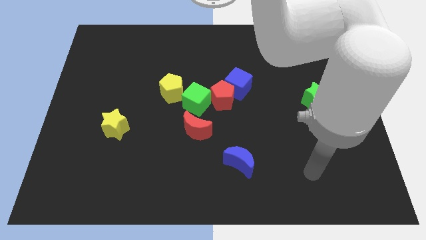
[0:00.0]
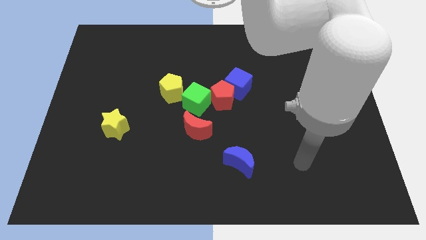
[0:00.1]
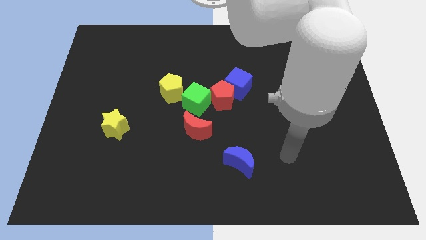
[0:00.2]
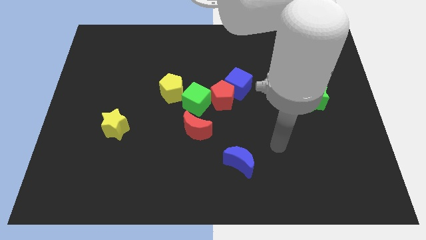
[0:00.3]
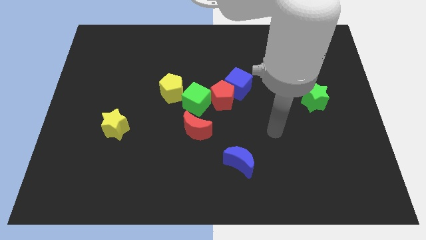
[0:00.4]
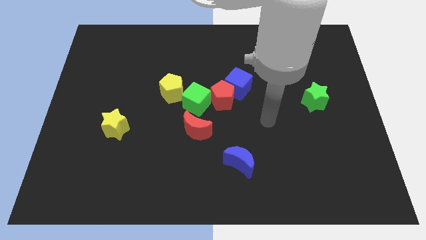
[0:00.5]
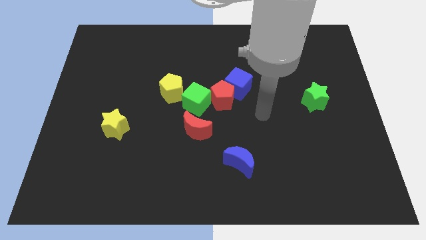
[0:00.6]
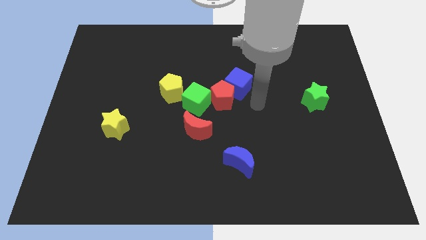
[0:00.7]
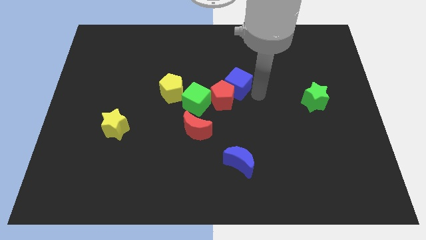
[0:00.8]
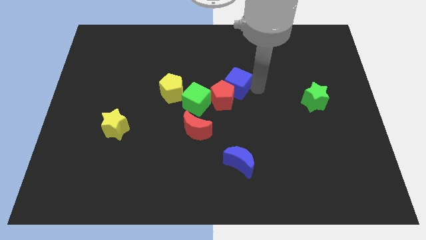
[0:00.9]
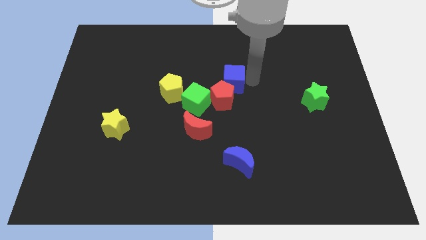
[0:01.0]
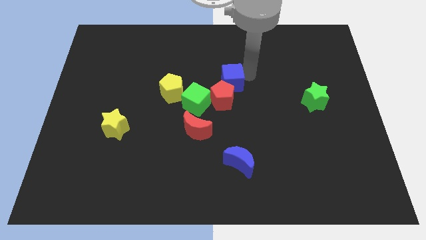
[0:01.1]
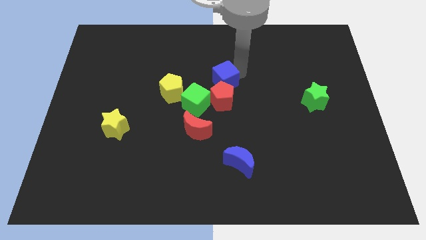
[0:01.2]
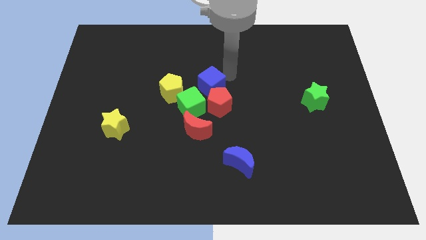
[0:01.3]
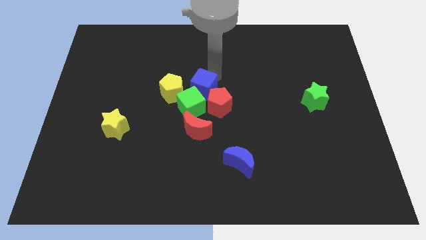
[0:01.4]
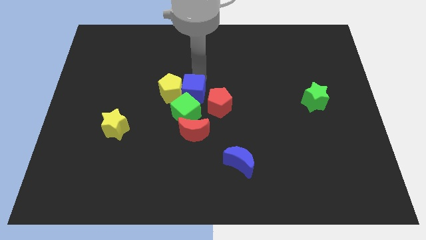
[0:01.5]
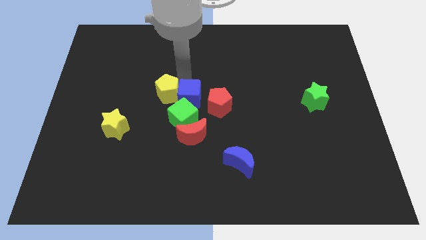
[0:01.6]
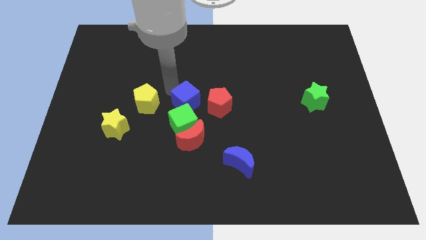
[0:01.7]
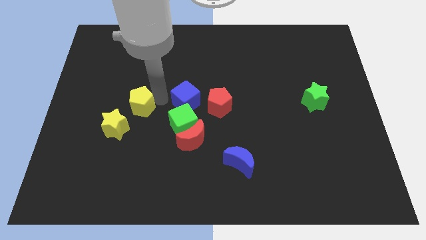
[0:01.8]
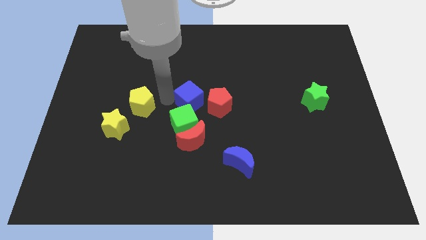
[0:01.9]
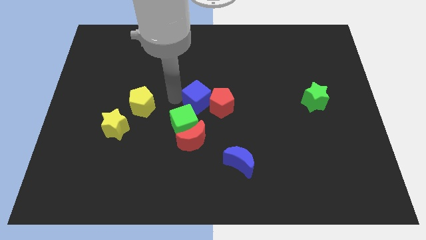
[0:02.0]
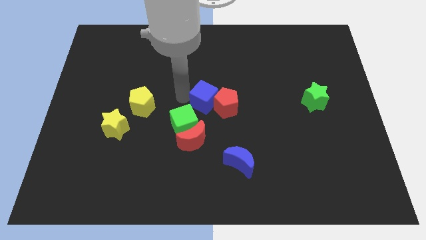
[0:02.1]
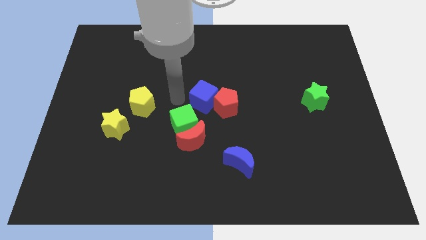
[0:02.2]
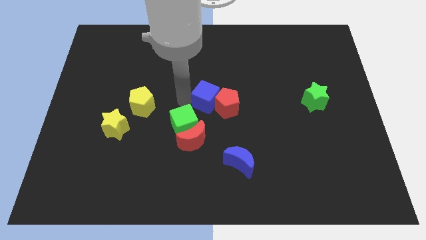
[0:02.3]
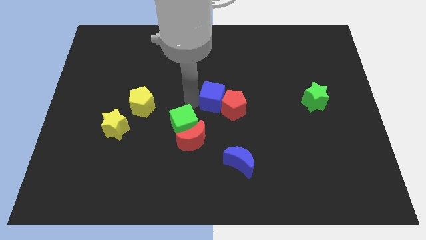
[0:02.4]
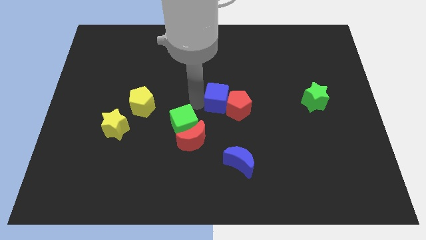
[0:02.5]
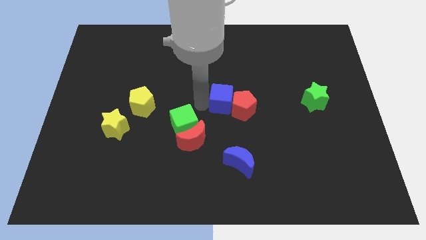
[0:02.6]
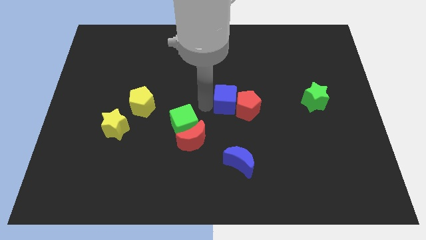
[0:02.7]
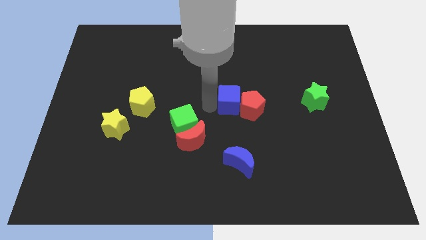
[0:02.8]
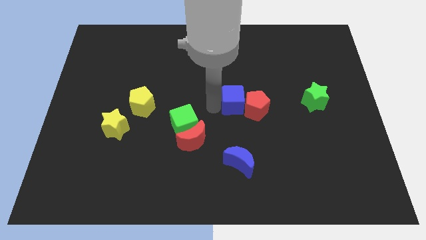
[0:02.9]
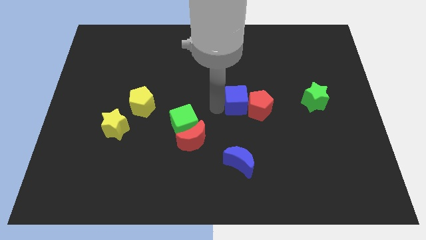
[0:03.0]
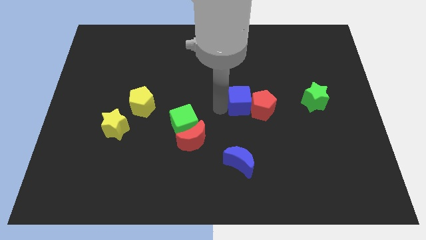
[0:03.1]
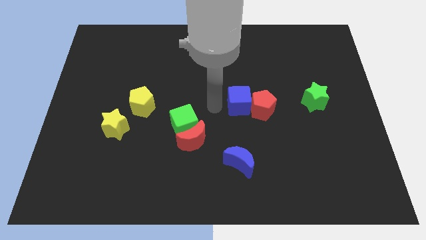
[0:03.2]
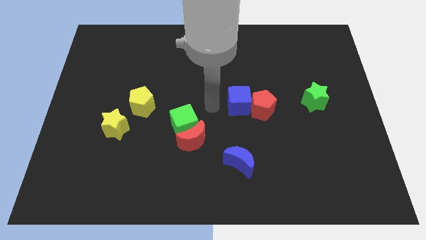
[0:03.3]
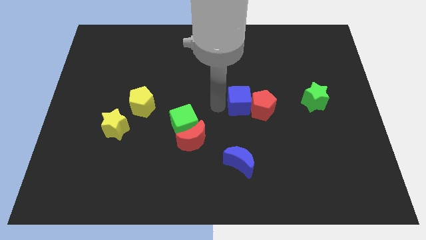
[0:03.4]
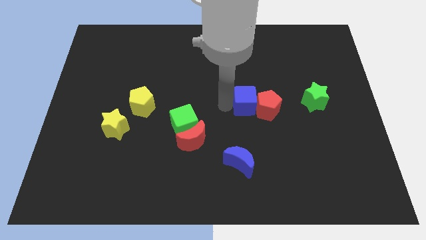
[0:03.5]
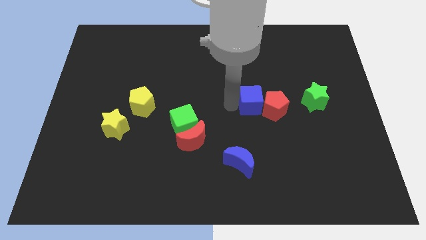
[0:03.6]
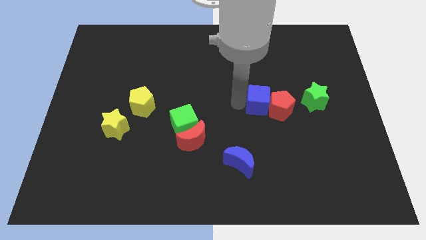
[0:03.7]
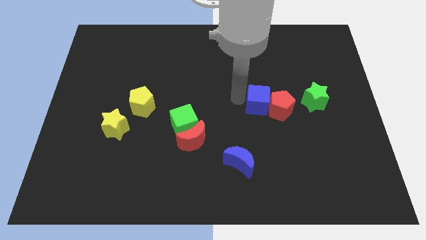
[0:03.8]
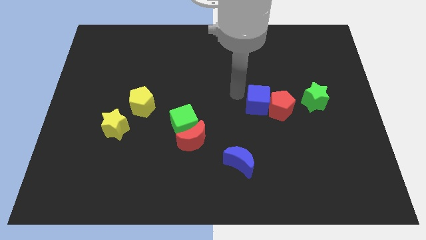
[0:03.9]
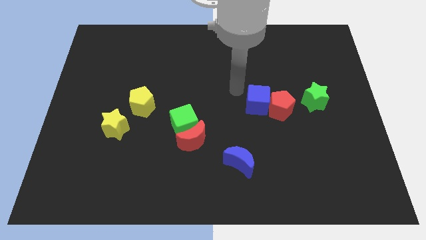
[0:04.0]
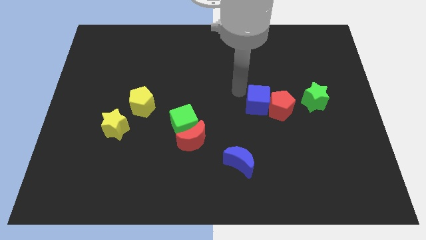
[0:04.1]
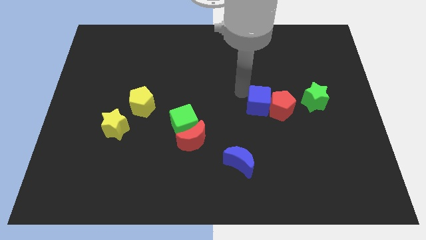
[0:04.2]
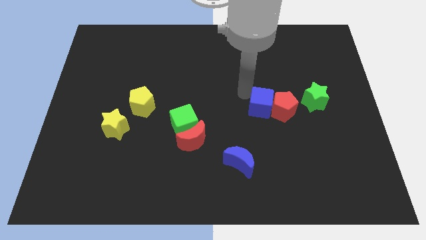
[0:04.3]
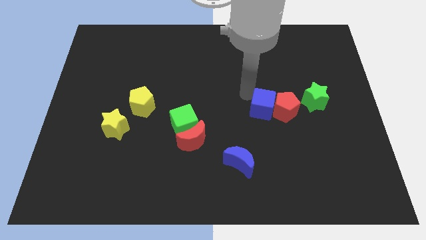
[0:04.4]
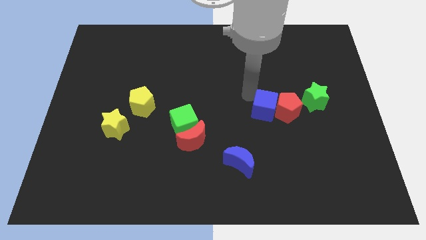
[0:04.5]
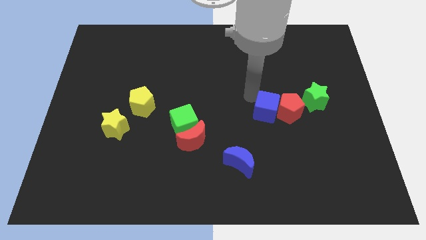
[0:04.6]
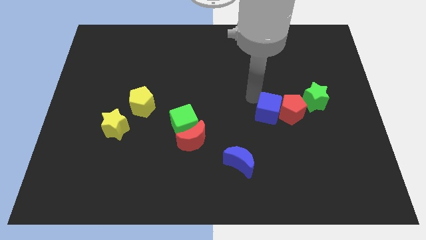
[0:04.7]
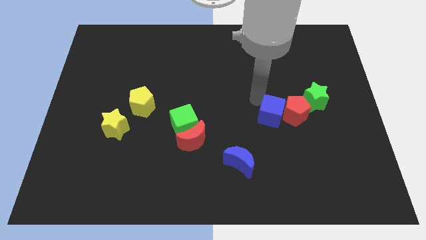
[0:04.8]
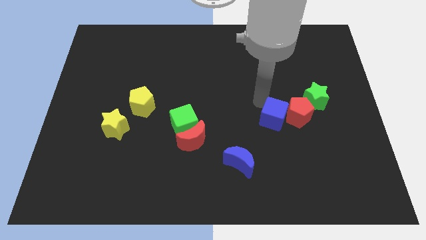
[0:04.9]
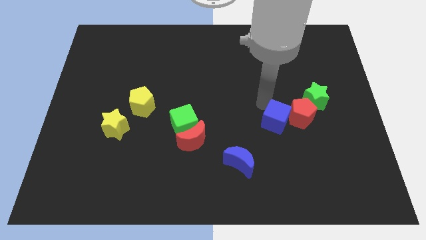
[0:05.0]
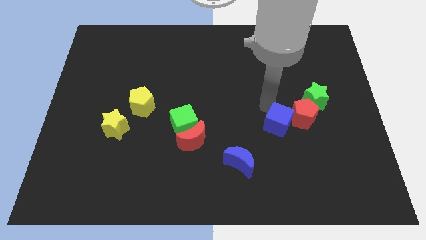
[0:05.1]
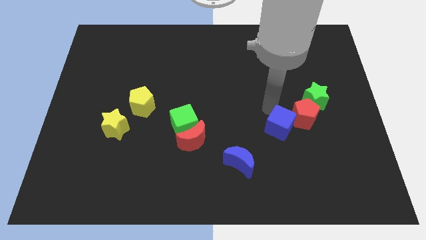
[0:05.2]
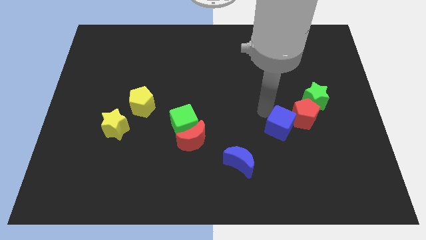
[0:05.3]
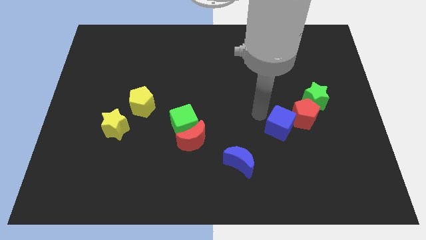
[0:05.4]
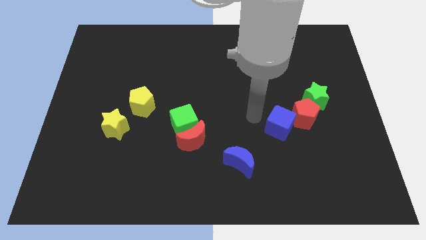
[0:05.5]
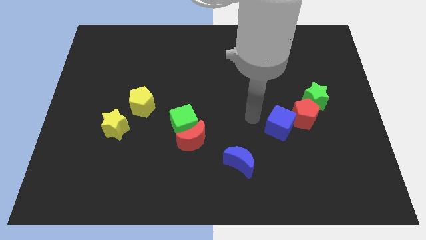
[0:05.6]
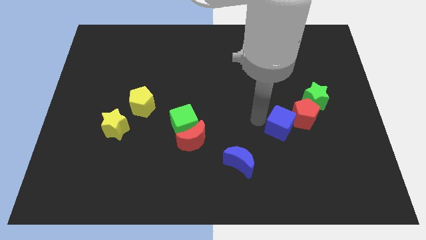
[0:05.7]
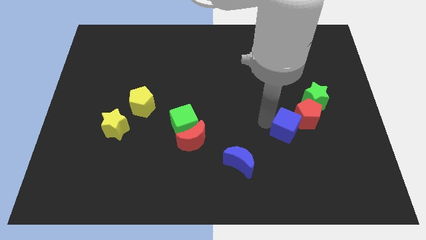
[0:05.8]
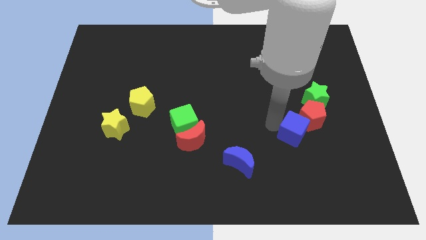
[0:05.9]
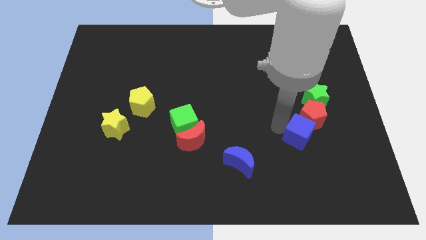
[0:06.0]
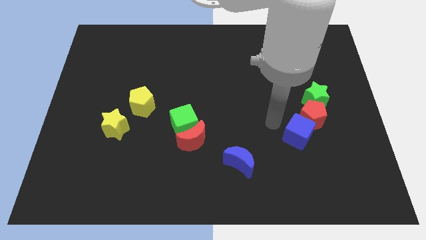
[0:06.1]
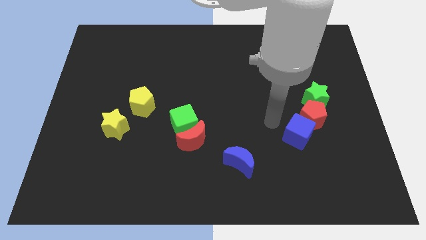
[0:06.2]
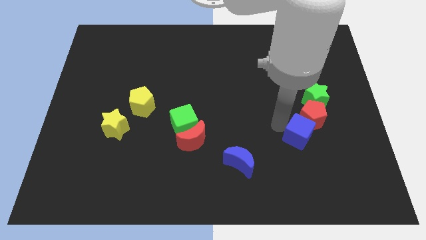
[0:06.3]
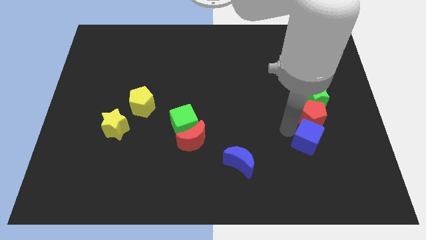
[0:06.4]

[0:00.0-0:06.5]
push the blue cube diagonally downwards and to the right

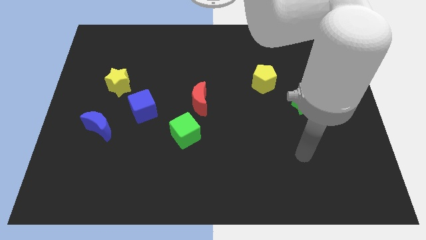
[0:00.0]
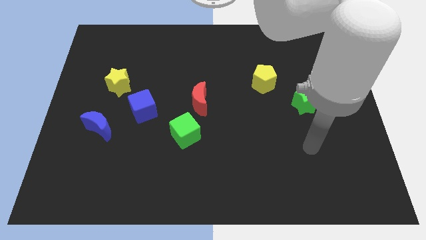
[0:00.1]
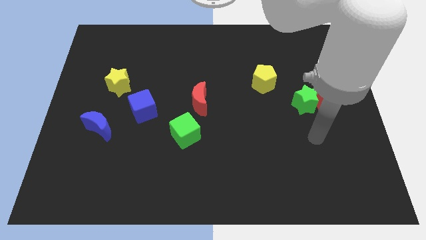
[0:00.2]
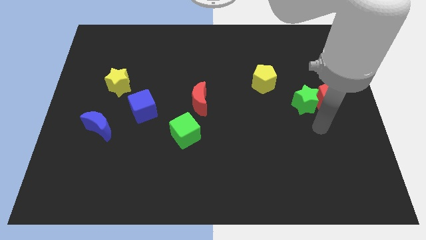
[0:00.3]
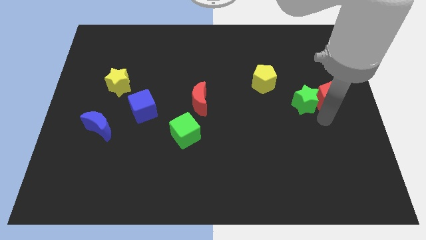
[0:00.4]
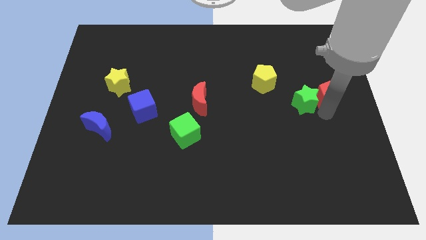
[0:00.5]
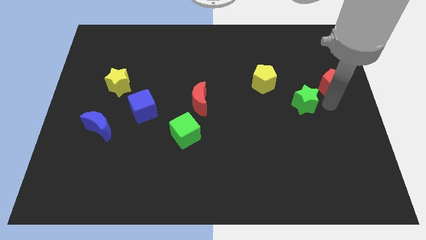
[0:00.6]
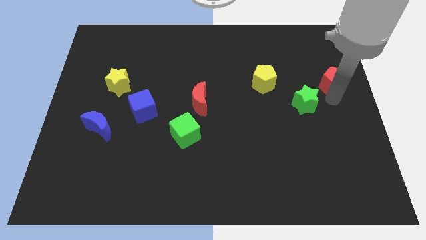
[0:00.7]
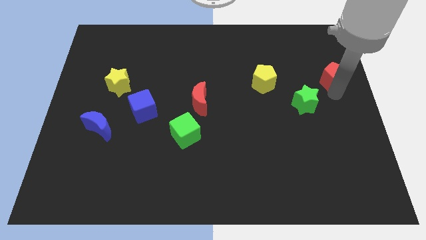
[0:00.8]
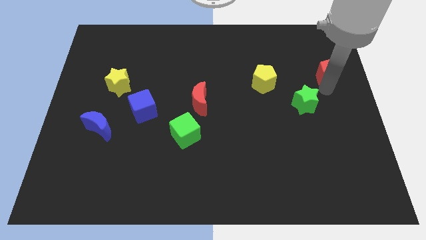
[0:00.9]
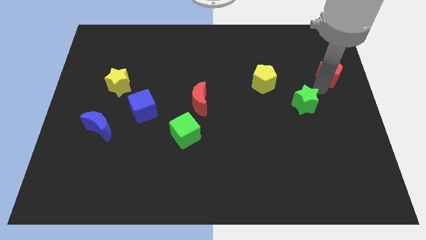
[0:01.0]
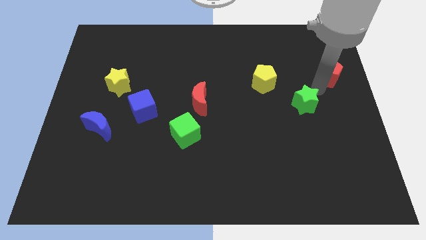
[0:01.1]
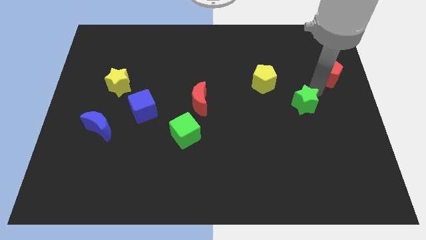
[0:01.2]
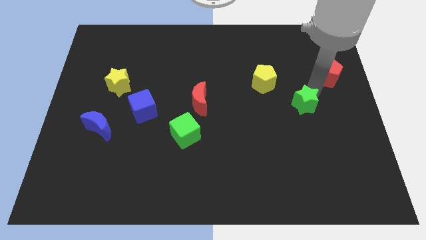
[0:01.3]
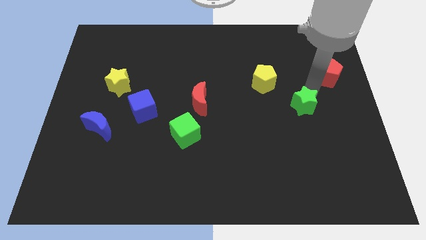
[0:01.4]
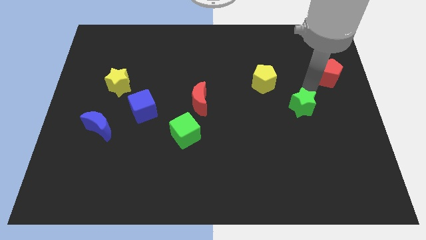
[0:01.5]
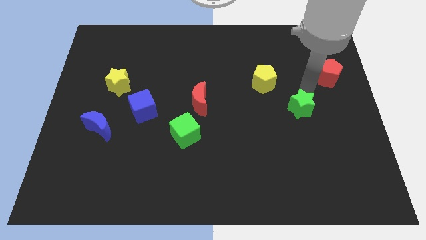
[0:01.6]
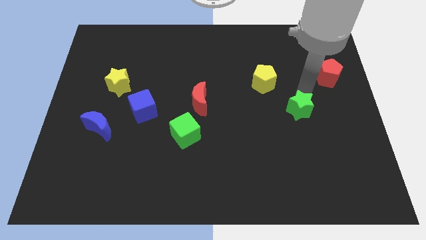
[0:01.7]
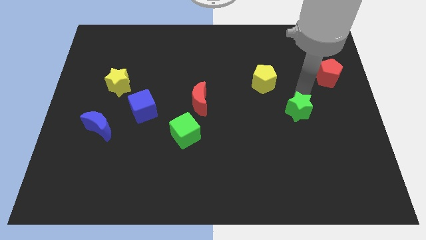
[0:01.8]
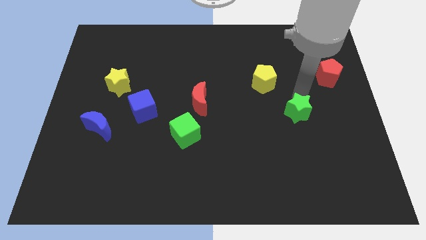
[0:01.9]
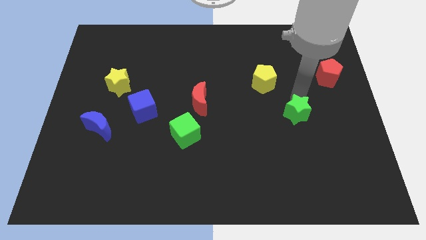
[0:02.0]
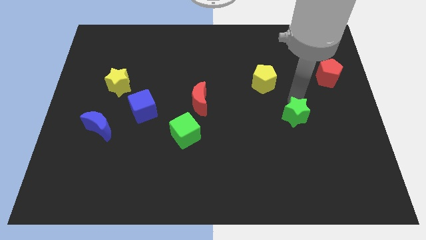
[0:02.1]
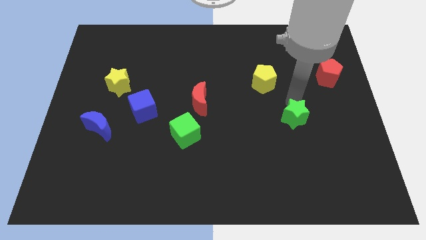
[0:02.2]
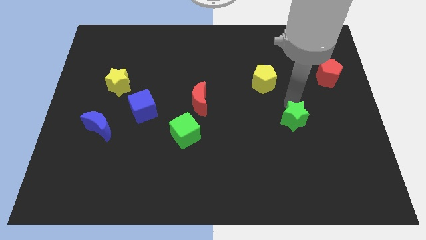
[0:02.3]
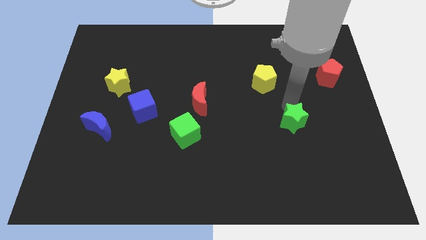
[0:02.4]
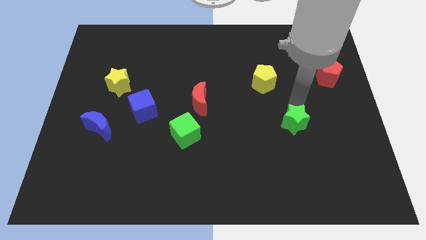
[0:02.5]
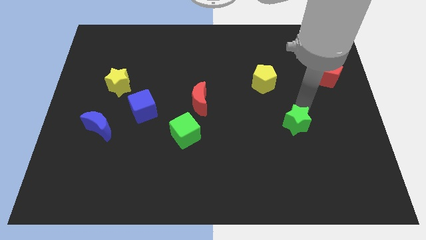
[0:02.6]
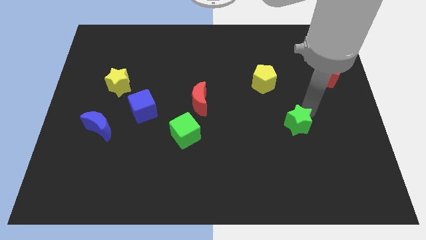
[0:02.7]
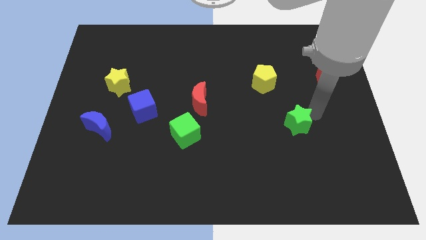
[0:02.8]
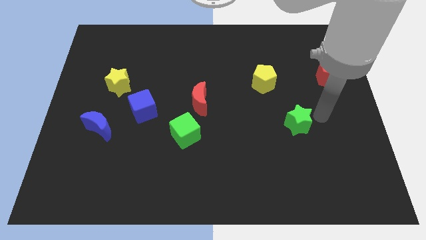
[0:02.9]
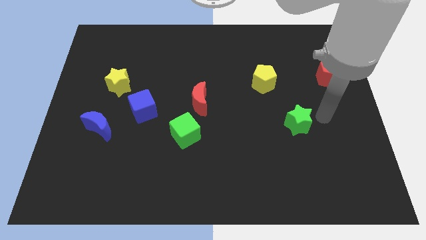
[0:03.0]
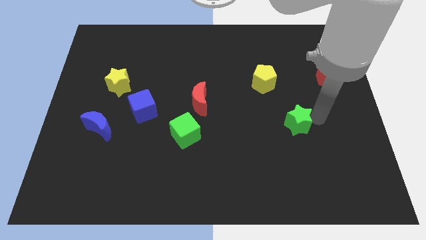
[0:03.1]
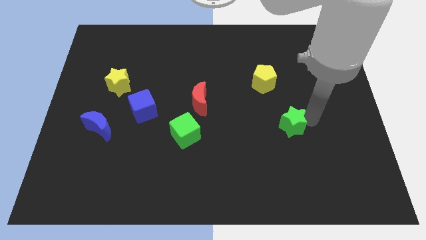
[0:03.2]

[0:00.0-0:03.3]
slide the green star diagonally down and to the left slightly
